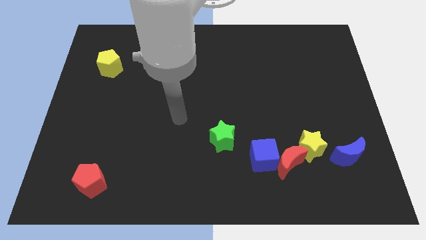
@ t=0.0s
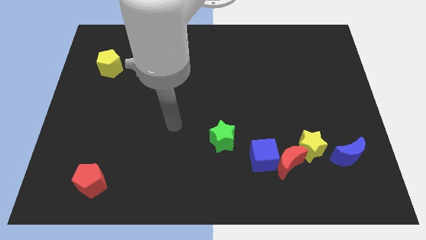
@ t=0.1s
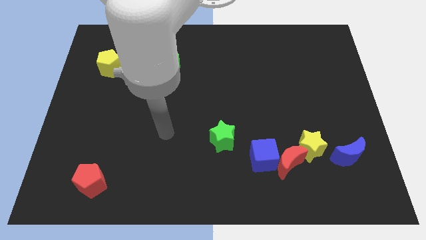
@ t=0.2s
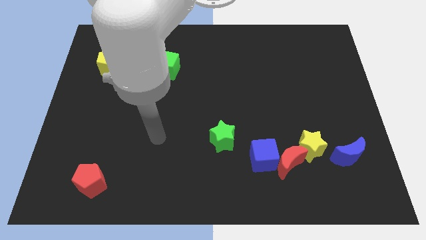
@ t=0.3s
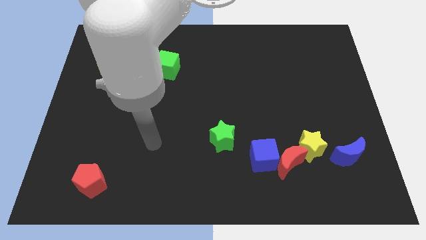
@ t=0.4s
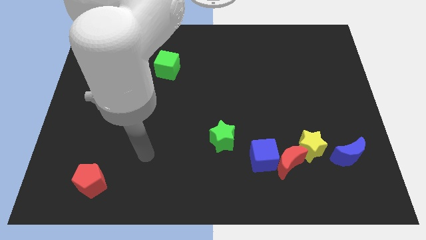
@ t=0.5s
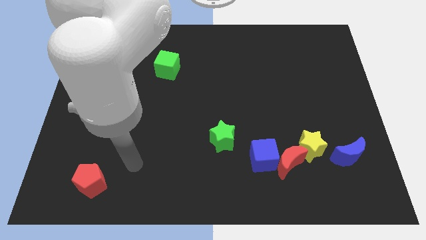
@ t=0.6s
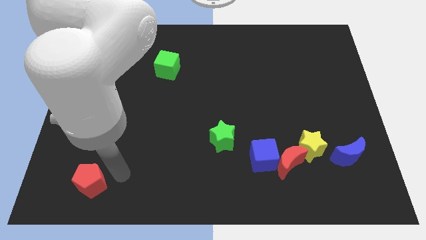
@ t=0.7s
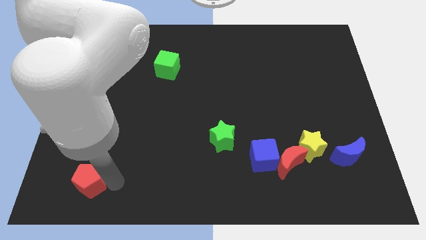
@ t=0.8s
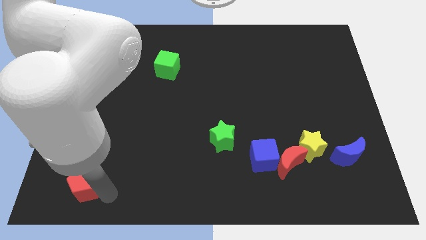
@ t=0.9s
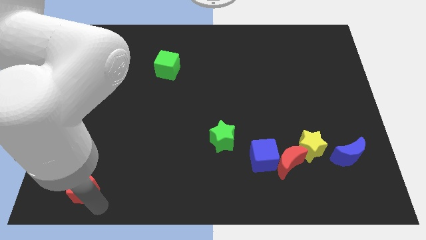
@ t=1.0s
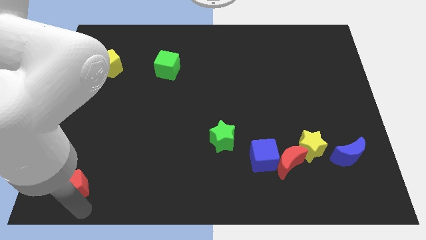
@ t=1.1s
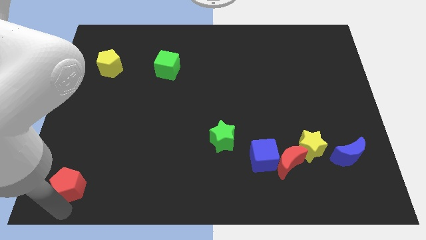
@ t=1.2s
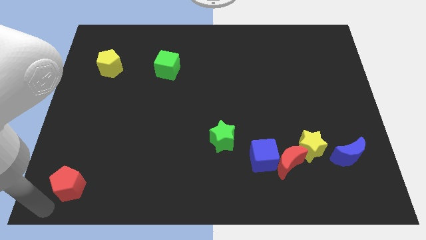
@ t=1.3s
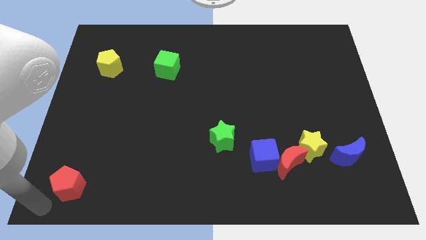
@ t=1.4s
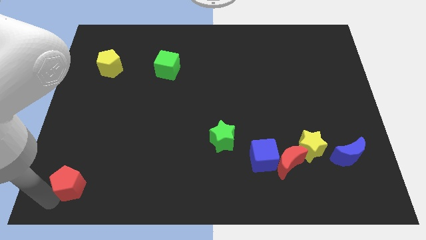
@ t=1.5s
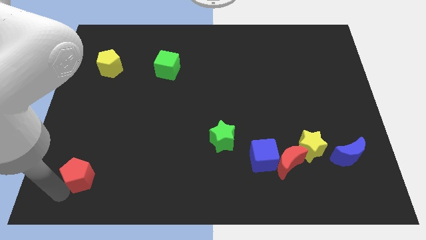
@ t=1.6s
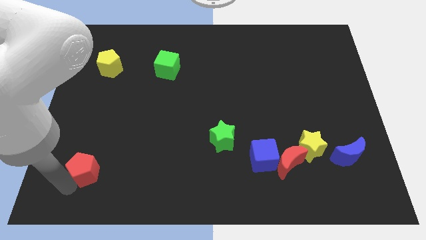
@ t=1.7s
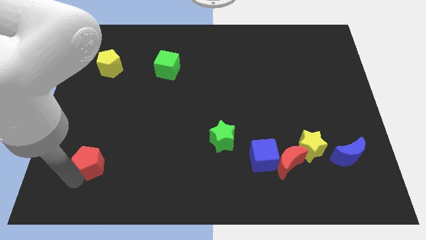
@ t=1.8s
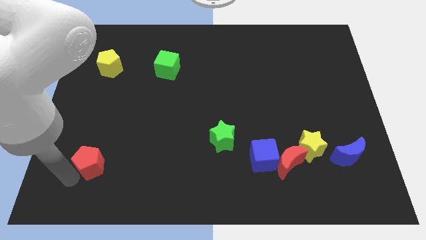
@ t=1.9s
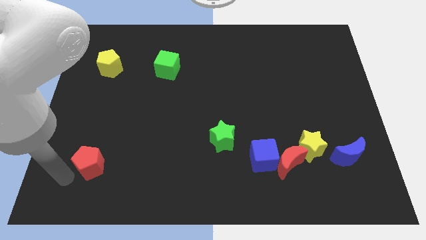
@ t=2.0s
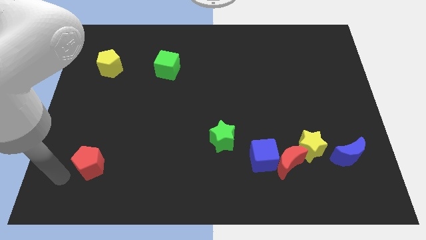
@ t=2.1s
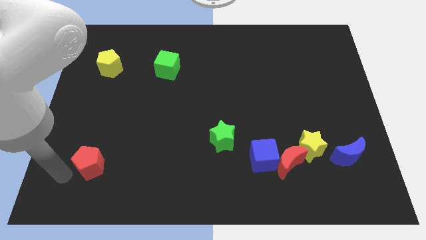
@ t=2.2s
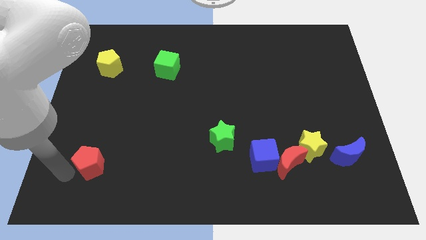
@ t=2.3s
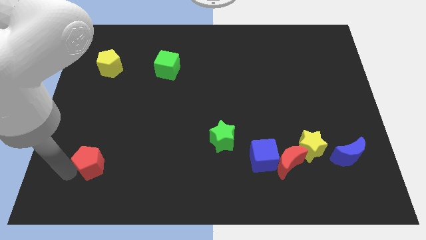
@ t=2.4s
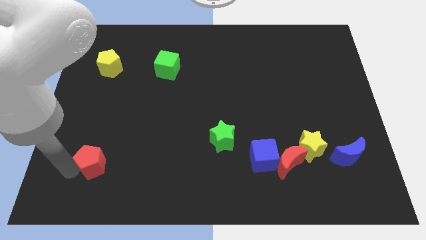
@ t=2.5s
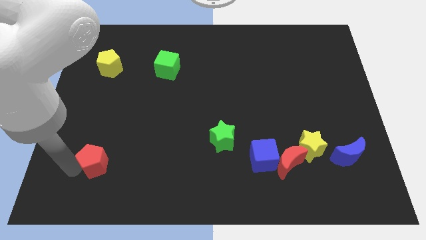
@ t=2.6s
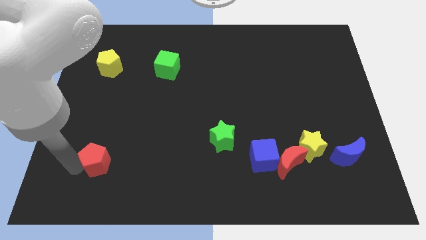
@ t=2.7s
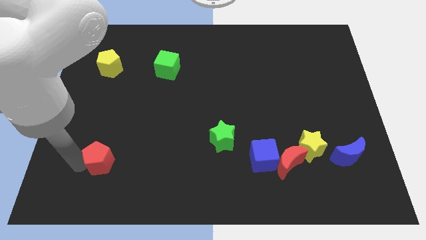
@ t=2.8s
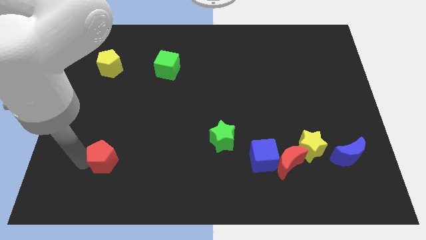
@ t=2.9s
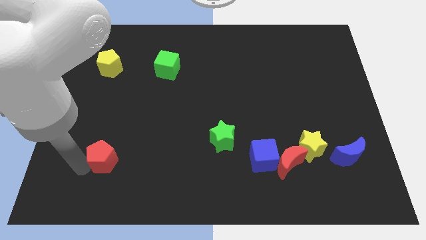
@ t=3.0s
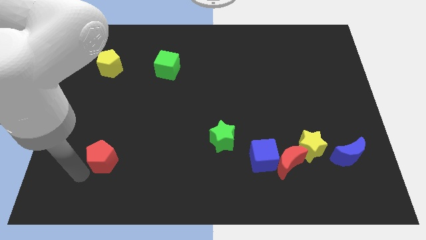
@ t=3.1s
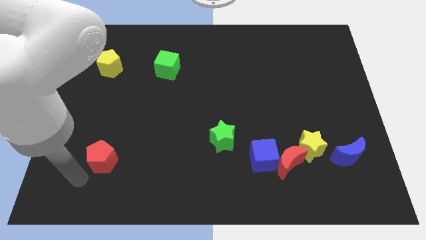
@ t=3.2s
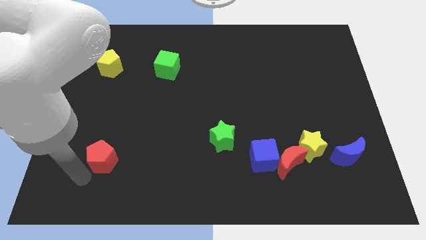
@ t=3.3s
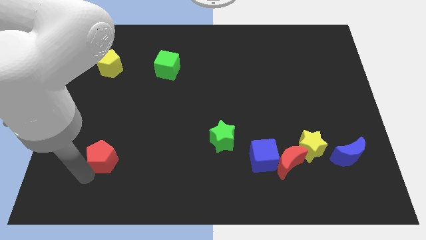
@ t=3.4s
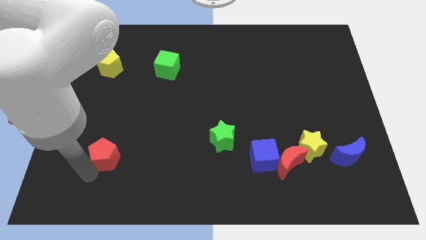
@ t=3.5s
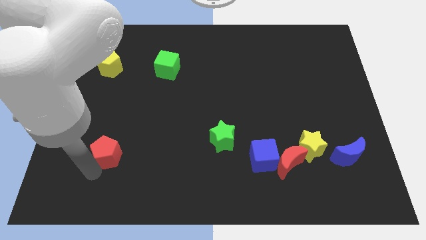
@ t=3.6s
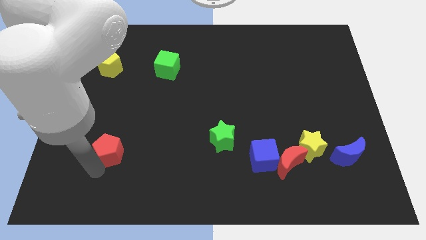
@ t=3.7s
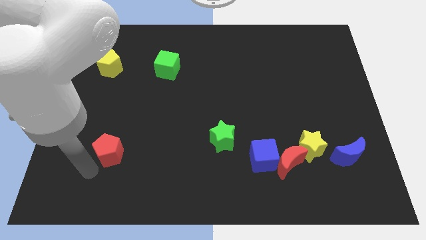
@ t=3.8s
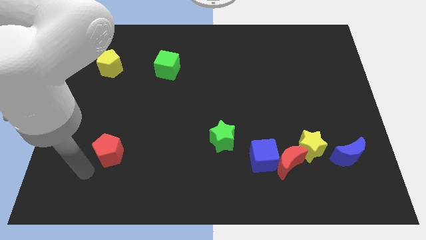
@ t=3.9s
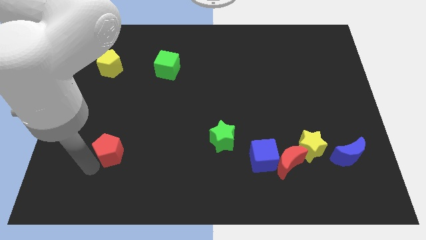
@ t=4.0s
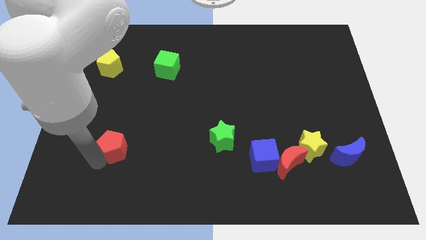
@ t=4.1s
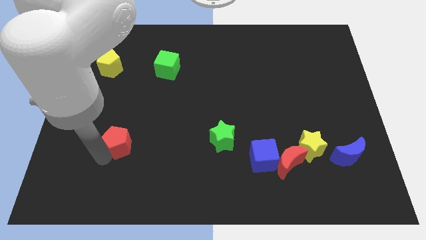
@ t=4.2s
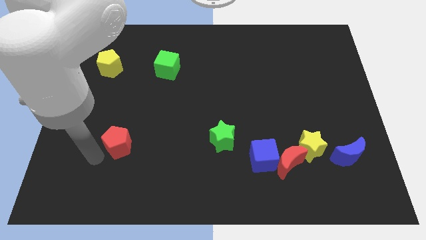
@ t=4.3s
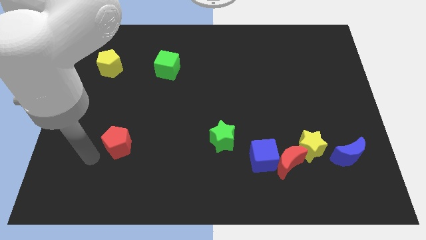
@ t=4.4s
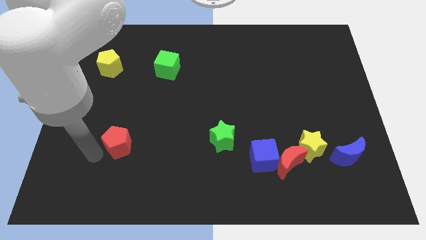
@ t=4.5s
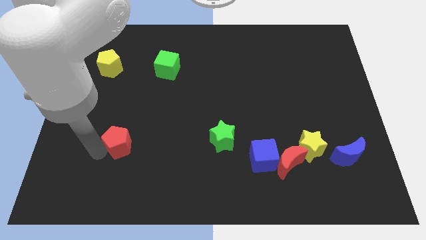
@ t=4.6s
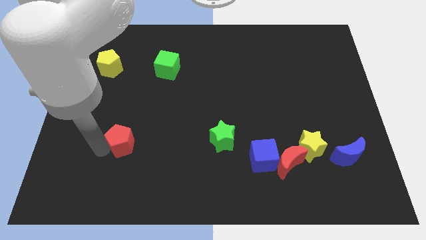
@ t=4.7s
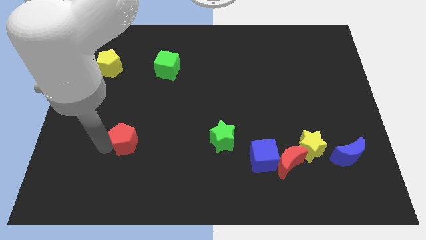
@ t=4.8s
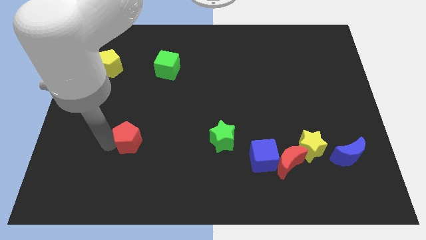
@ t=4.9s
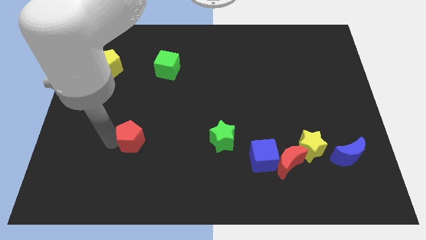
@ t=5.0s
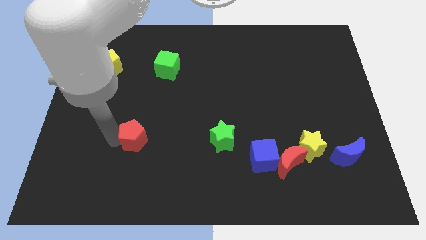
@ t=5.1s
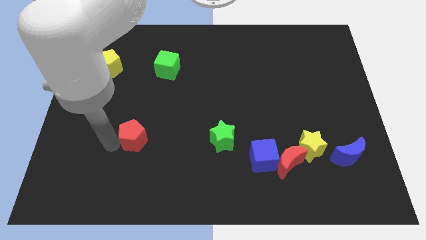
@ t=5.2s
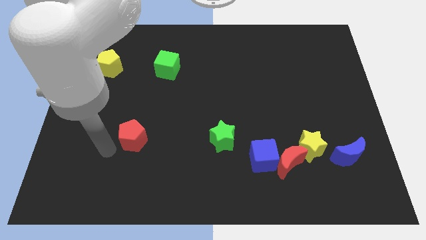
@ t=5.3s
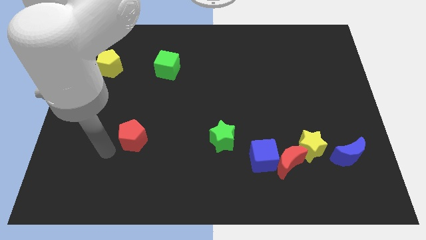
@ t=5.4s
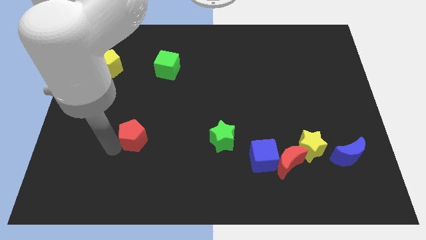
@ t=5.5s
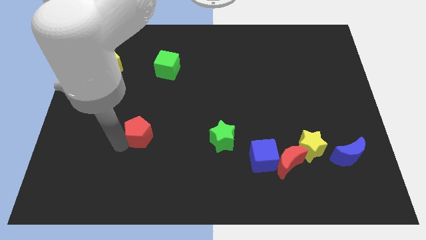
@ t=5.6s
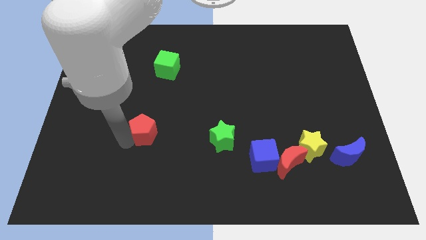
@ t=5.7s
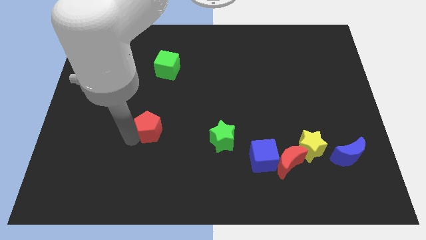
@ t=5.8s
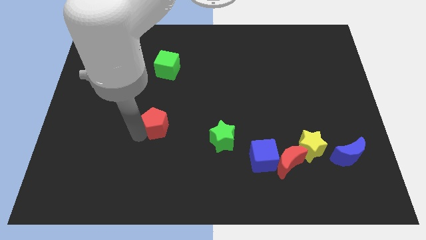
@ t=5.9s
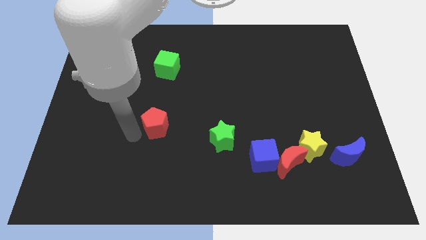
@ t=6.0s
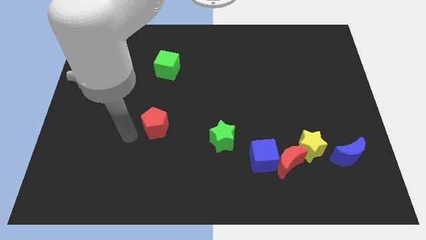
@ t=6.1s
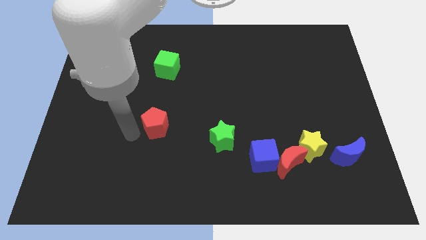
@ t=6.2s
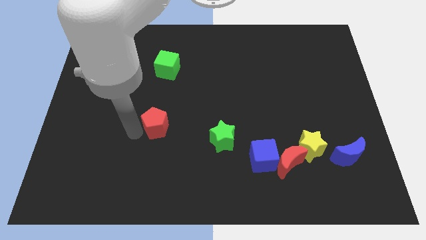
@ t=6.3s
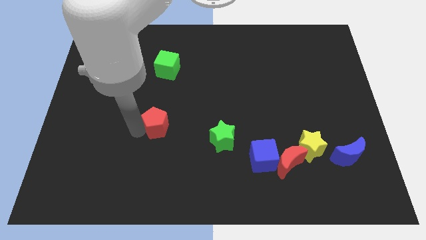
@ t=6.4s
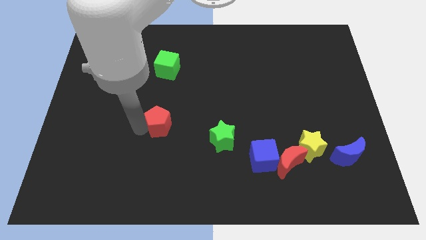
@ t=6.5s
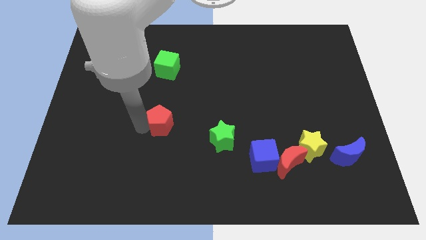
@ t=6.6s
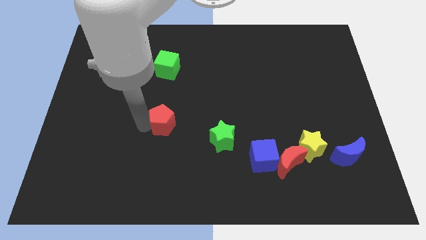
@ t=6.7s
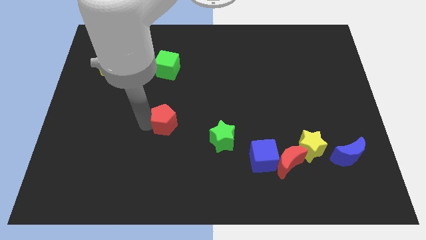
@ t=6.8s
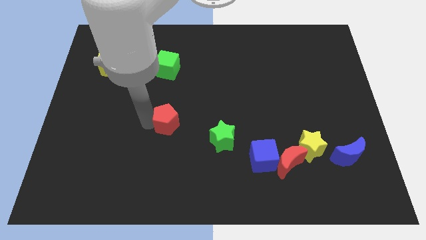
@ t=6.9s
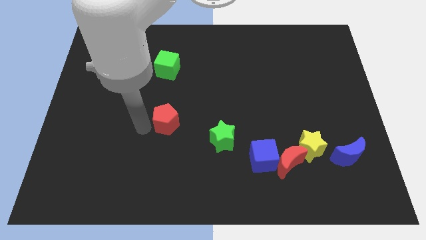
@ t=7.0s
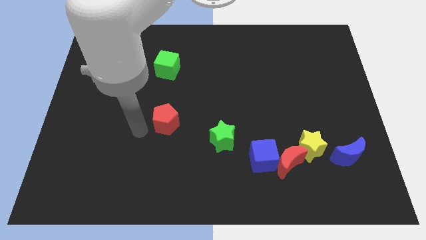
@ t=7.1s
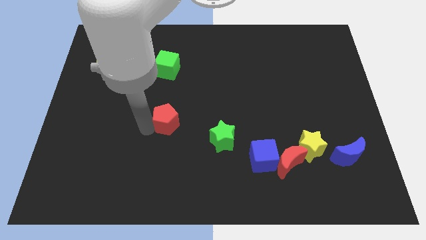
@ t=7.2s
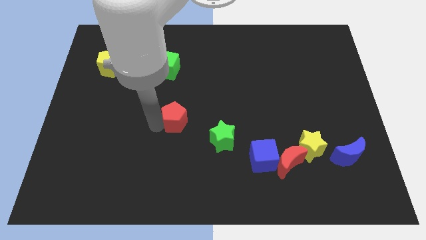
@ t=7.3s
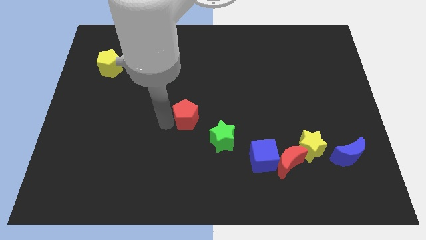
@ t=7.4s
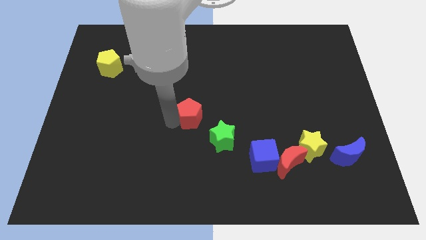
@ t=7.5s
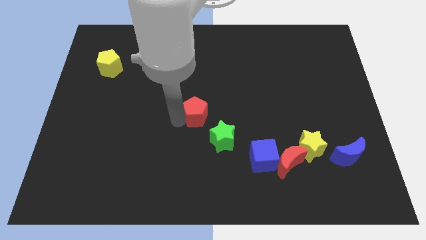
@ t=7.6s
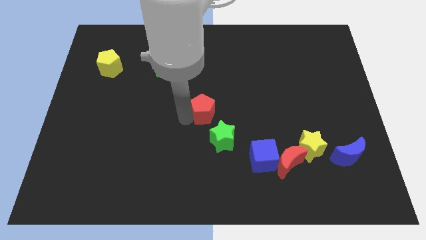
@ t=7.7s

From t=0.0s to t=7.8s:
slide the red pentagon to the top of the green star

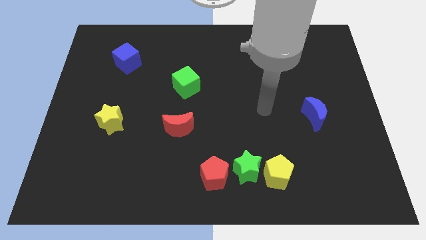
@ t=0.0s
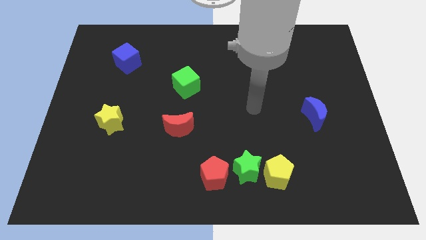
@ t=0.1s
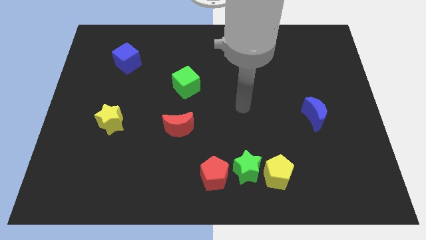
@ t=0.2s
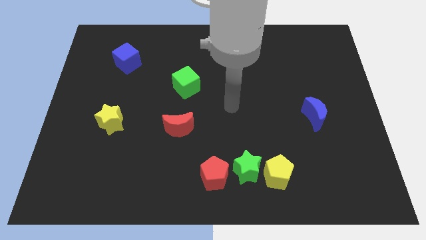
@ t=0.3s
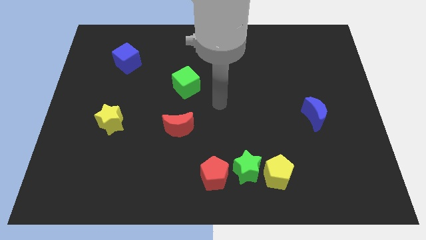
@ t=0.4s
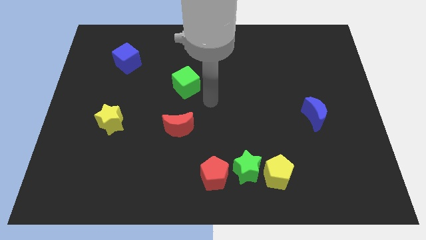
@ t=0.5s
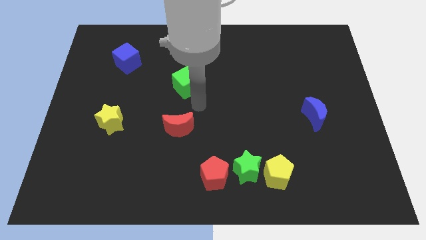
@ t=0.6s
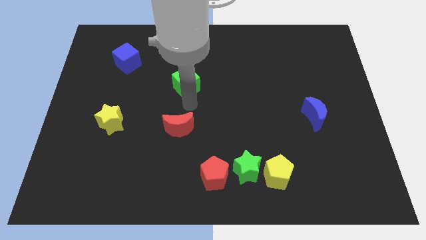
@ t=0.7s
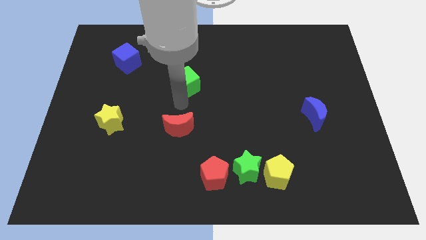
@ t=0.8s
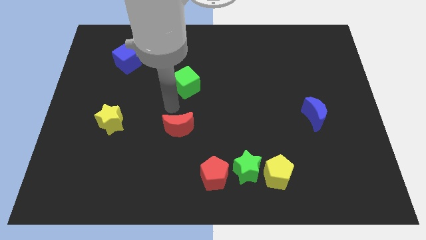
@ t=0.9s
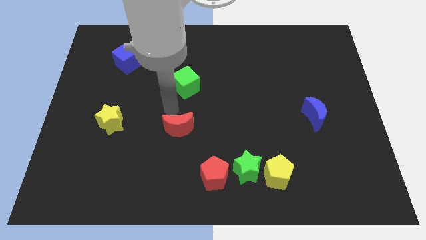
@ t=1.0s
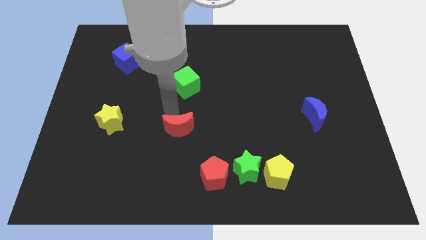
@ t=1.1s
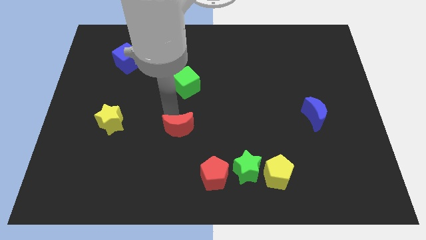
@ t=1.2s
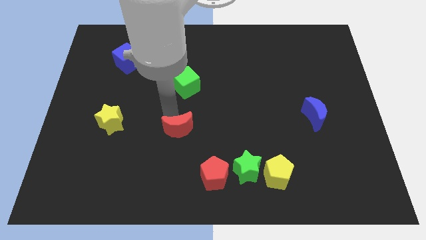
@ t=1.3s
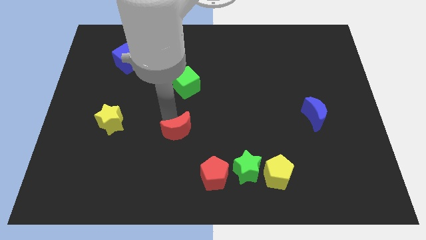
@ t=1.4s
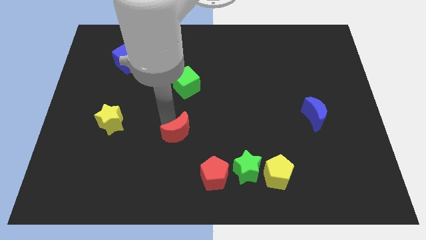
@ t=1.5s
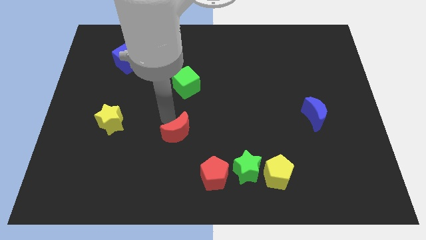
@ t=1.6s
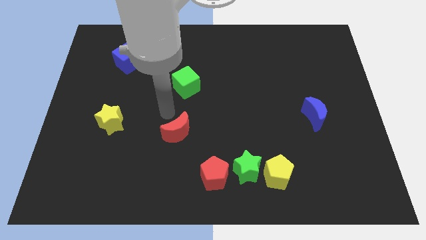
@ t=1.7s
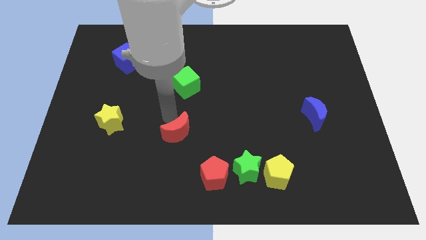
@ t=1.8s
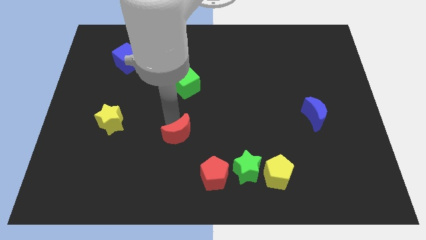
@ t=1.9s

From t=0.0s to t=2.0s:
put the red moon to the top left side of the red pentagon
